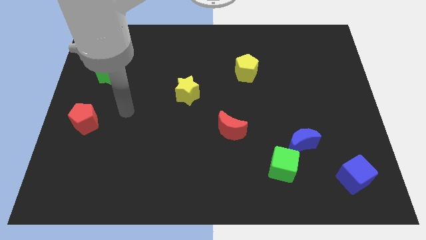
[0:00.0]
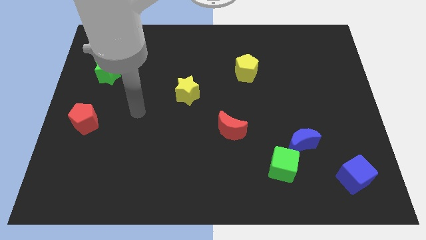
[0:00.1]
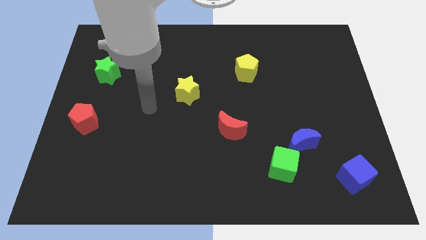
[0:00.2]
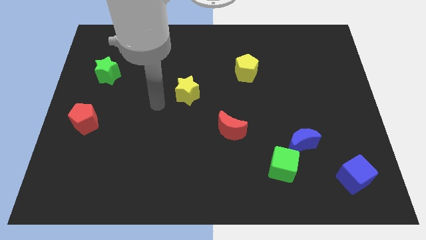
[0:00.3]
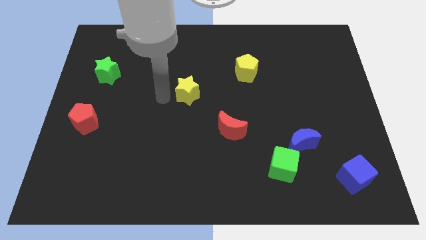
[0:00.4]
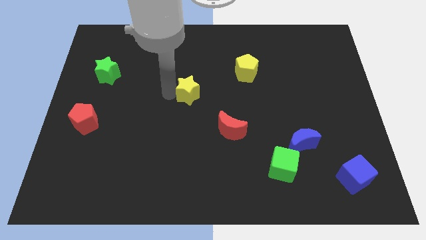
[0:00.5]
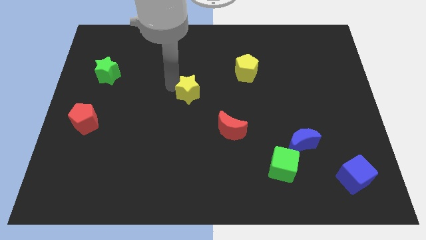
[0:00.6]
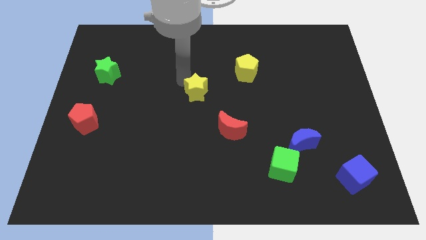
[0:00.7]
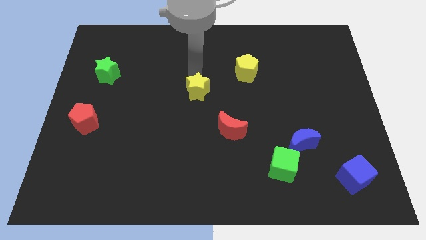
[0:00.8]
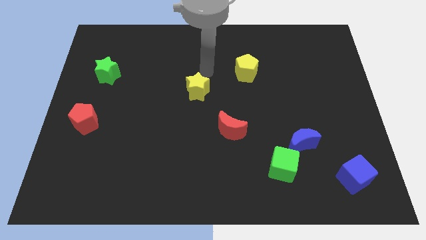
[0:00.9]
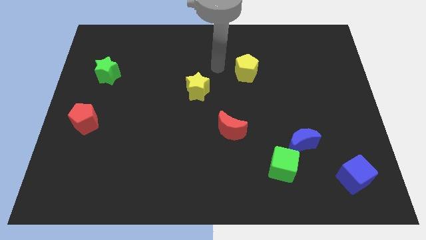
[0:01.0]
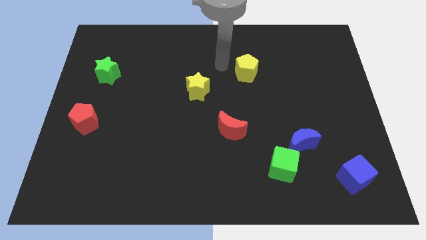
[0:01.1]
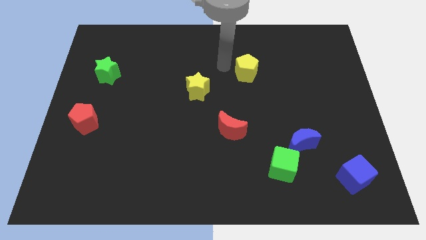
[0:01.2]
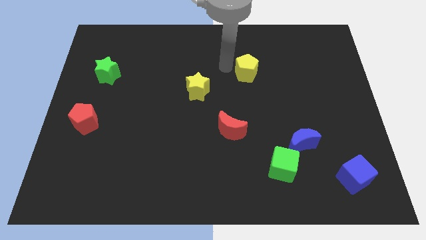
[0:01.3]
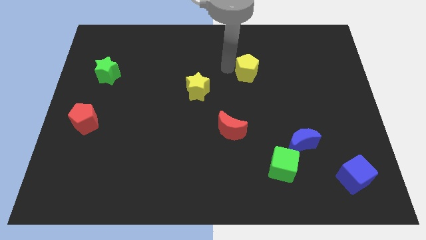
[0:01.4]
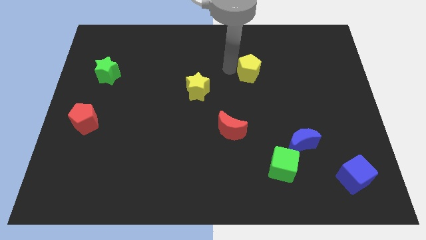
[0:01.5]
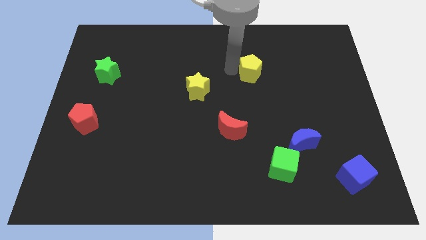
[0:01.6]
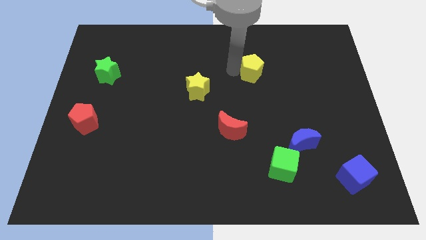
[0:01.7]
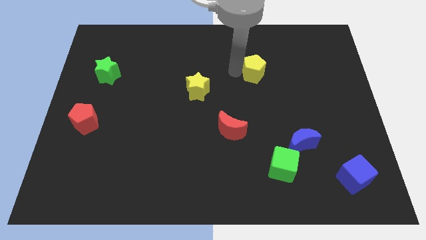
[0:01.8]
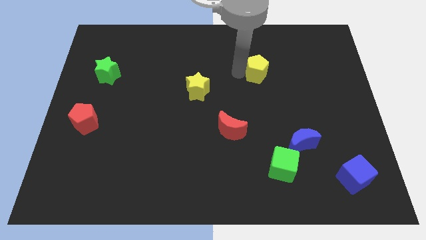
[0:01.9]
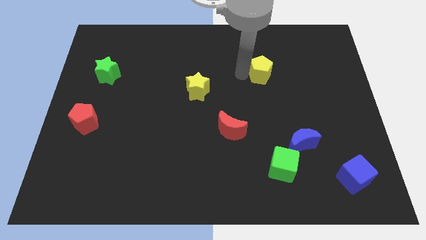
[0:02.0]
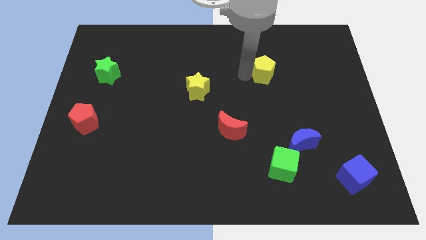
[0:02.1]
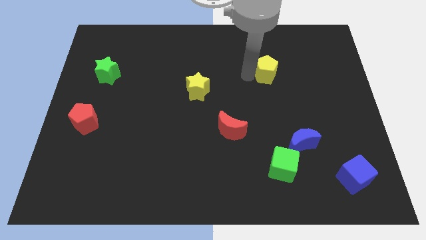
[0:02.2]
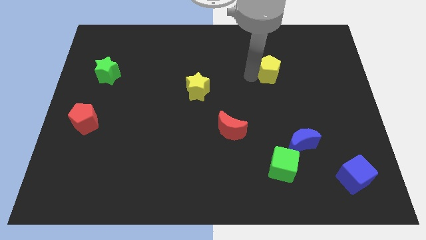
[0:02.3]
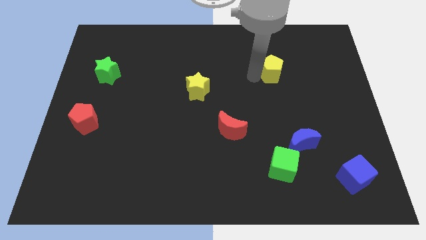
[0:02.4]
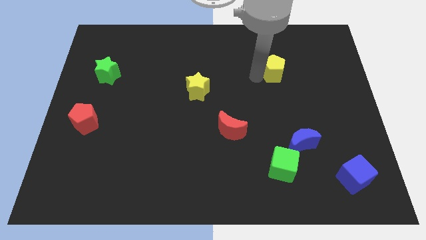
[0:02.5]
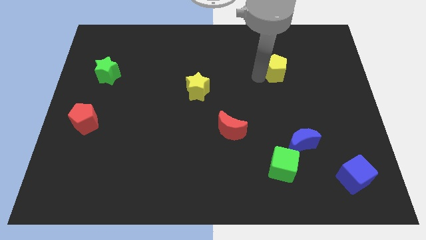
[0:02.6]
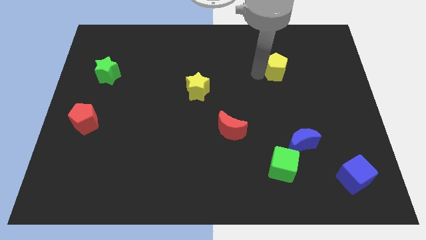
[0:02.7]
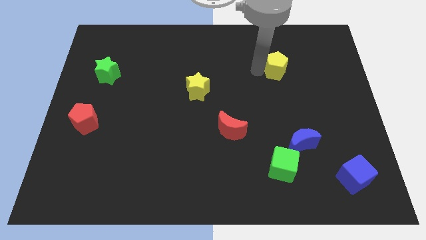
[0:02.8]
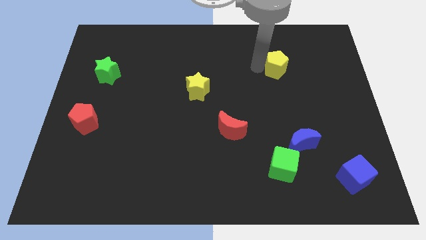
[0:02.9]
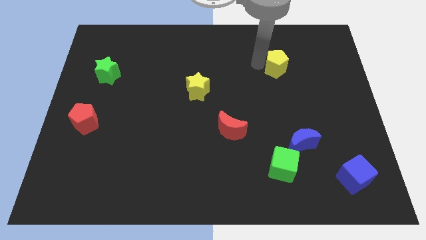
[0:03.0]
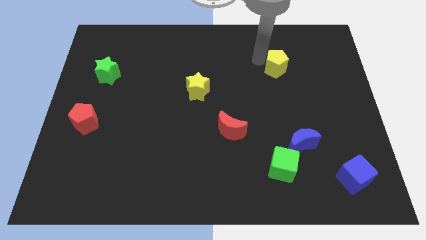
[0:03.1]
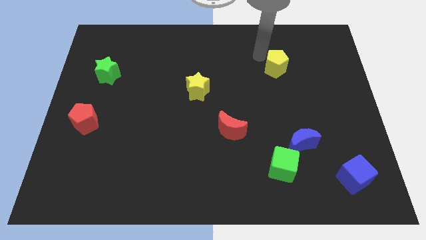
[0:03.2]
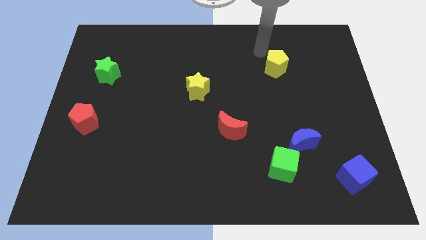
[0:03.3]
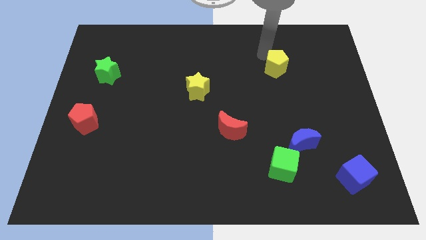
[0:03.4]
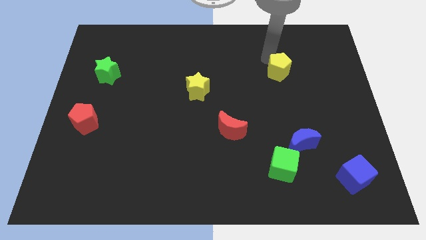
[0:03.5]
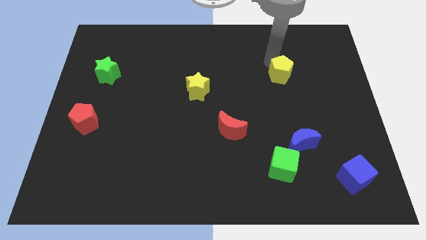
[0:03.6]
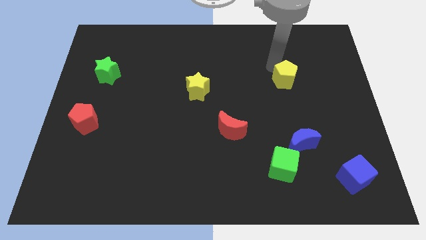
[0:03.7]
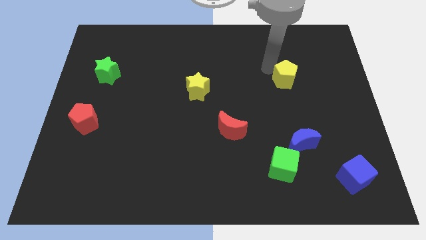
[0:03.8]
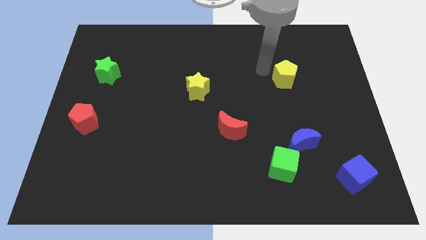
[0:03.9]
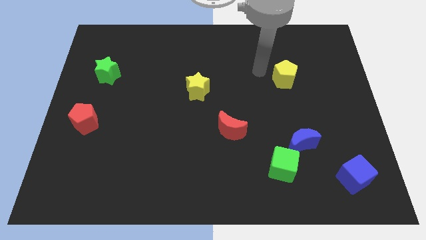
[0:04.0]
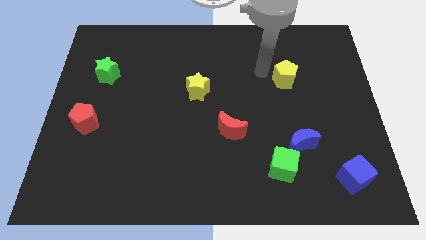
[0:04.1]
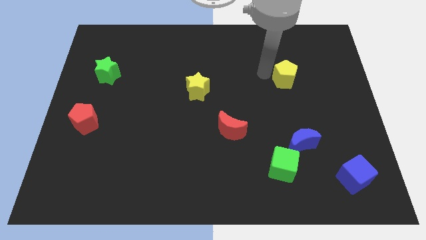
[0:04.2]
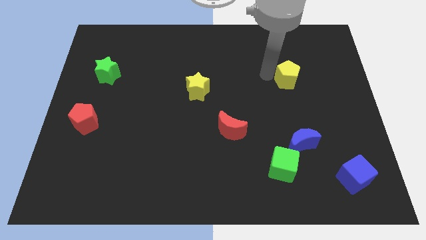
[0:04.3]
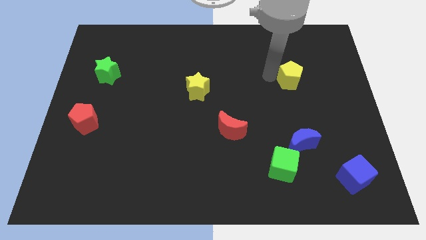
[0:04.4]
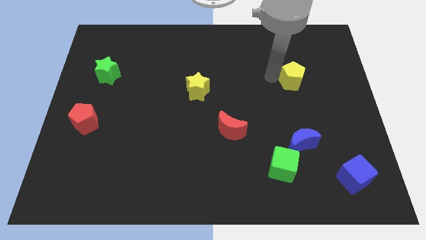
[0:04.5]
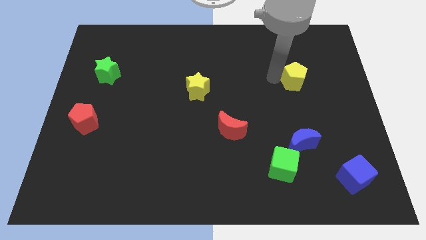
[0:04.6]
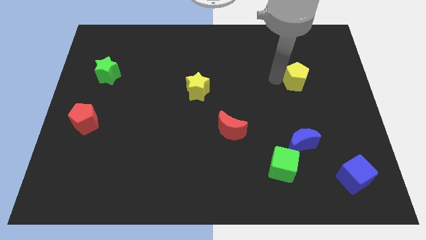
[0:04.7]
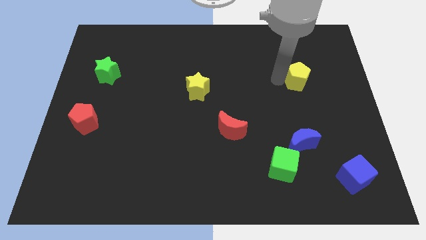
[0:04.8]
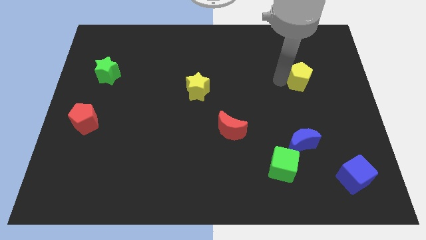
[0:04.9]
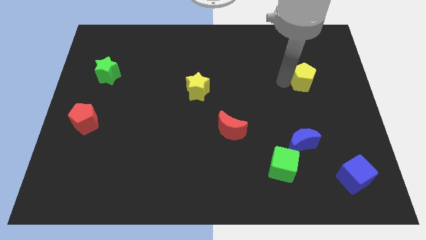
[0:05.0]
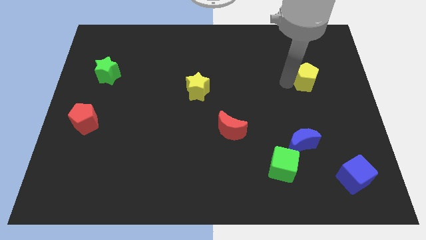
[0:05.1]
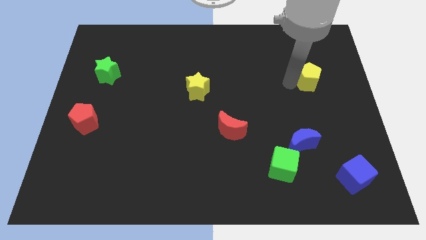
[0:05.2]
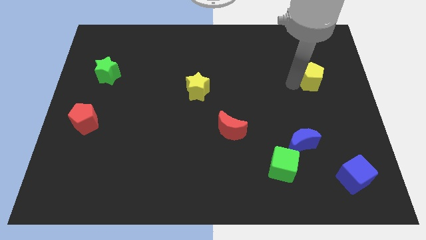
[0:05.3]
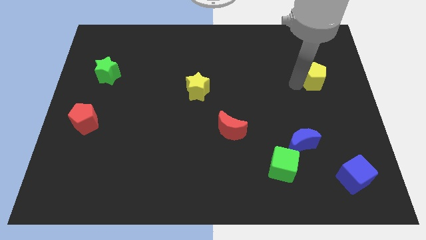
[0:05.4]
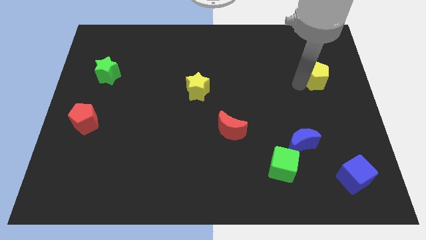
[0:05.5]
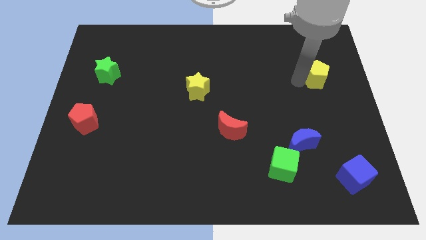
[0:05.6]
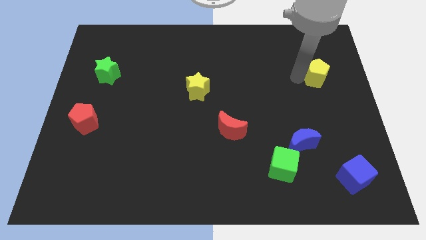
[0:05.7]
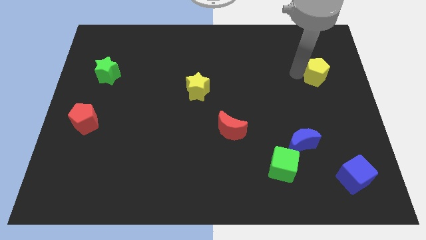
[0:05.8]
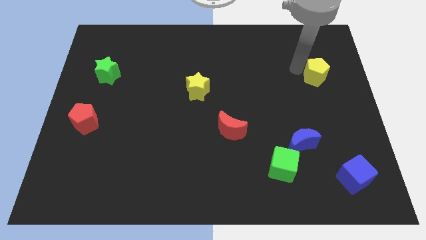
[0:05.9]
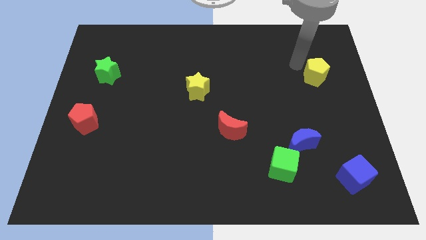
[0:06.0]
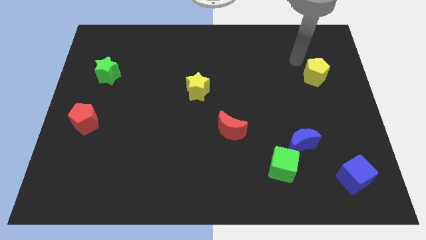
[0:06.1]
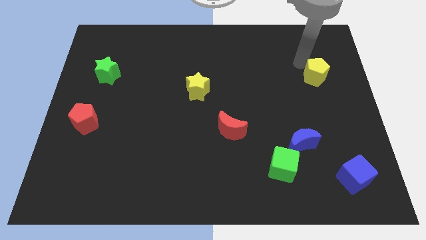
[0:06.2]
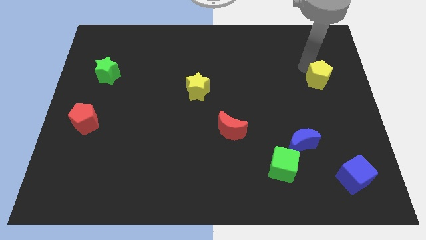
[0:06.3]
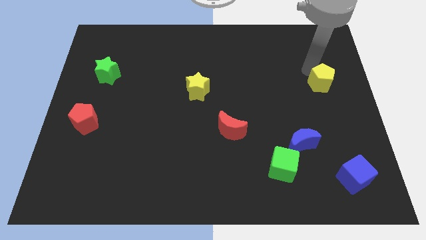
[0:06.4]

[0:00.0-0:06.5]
move the yellow pentagon to the center right
